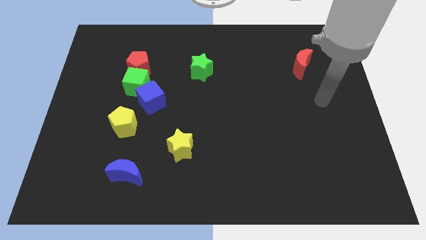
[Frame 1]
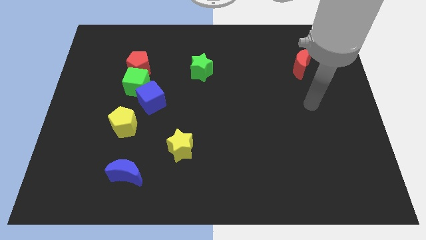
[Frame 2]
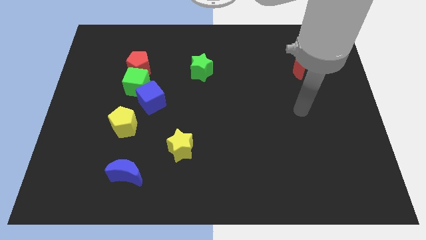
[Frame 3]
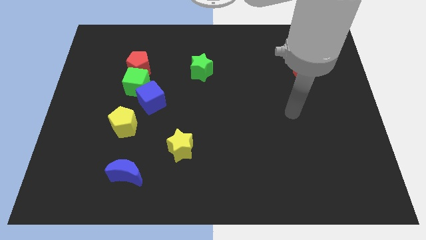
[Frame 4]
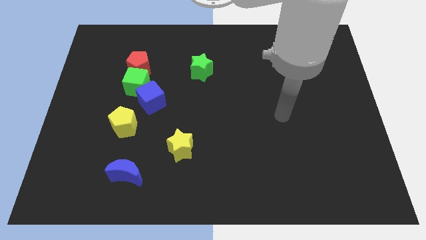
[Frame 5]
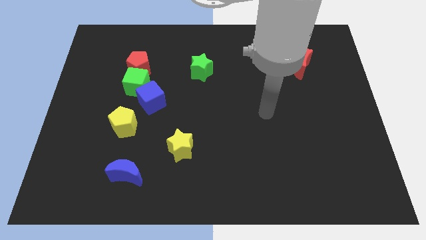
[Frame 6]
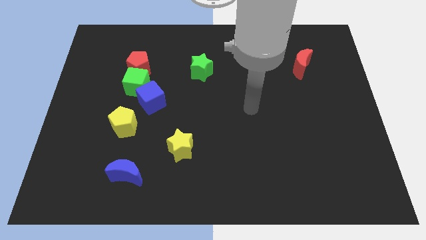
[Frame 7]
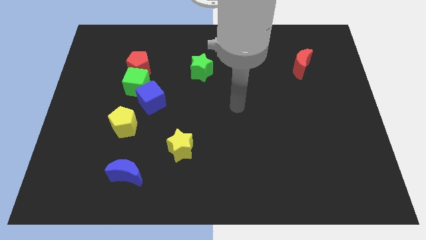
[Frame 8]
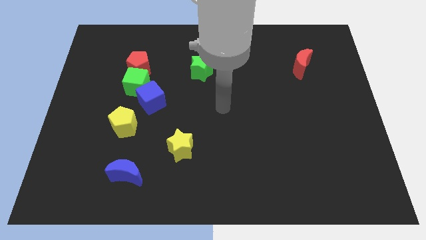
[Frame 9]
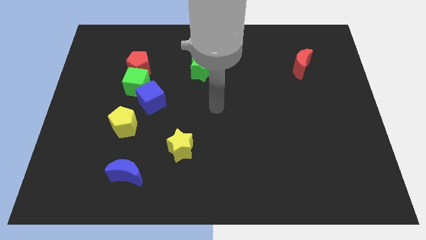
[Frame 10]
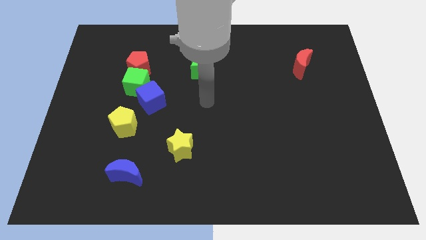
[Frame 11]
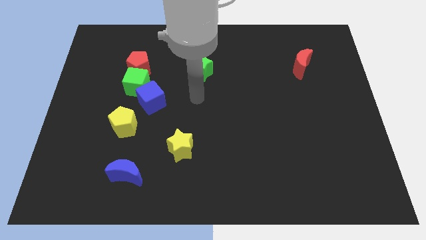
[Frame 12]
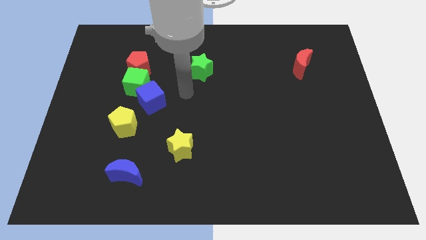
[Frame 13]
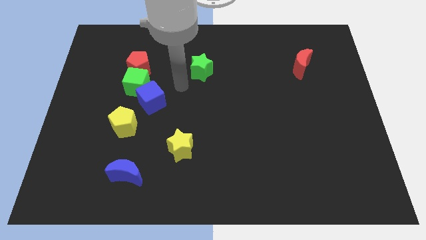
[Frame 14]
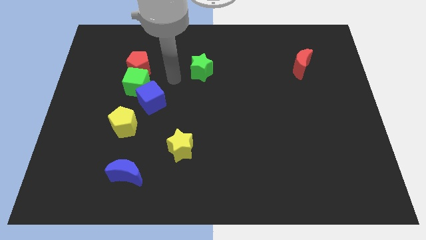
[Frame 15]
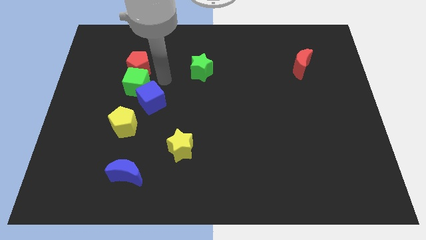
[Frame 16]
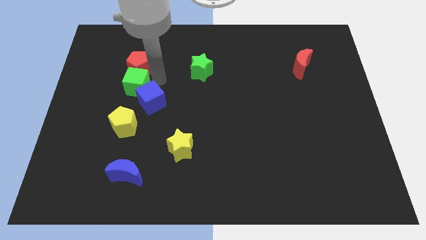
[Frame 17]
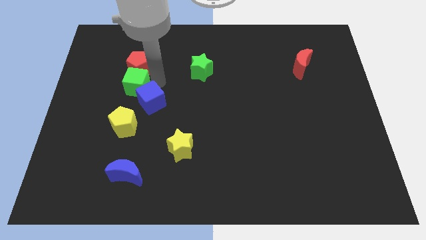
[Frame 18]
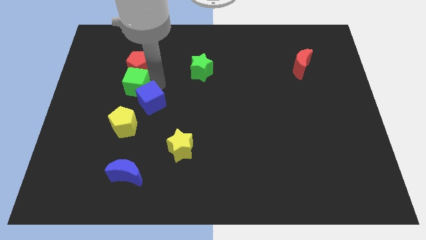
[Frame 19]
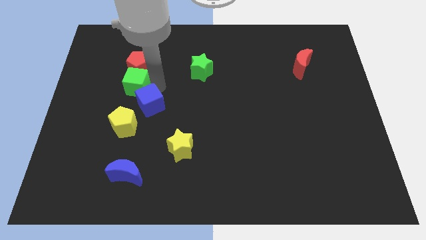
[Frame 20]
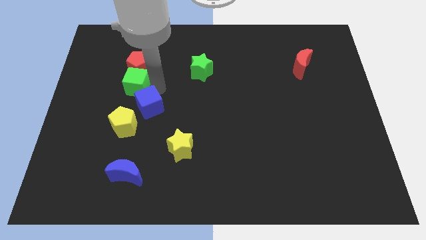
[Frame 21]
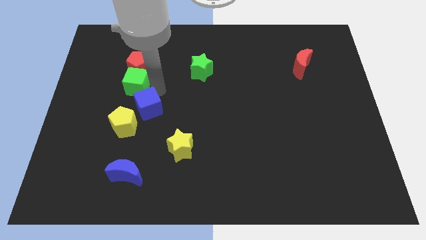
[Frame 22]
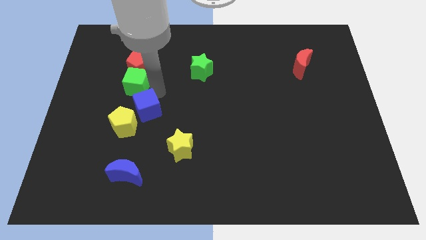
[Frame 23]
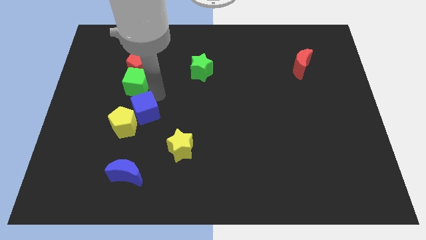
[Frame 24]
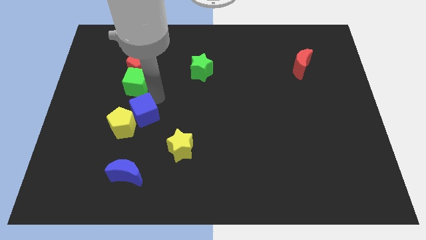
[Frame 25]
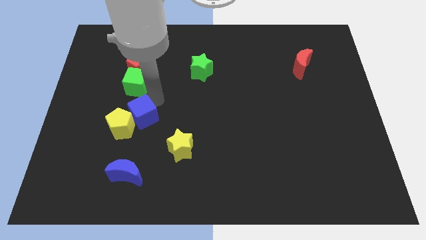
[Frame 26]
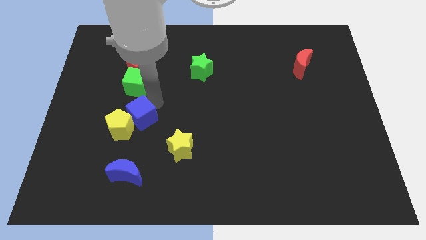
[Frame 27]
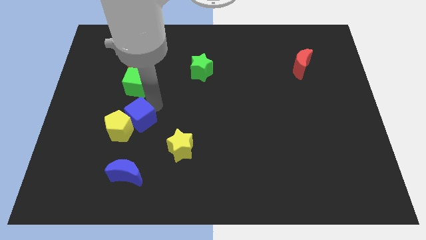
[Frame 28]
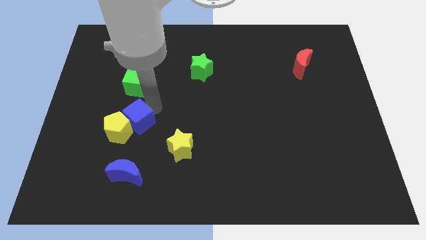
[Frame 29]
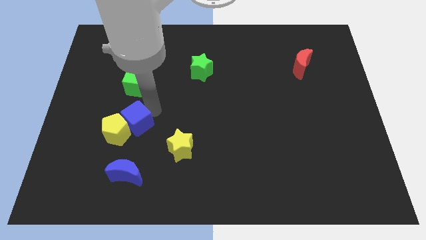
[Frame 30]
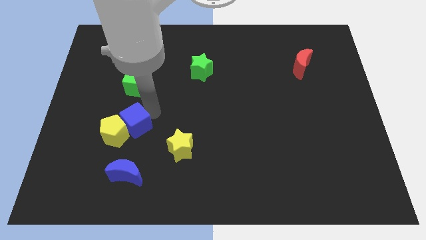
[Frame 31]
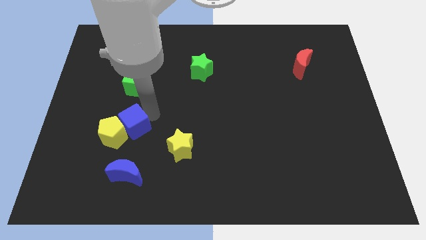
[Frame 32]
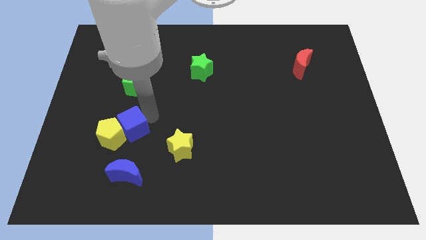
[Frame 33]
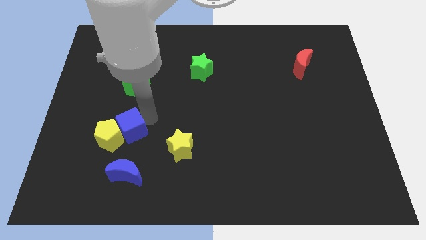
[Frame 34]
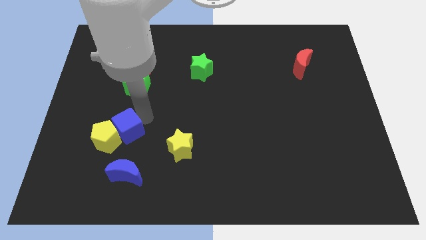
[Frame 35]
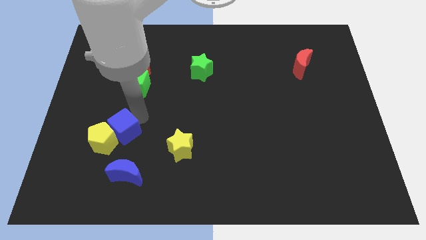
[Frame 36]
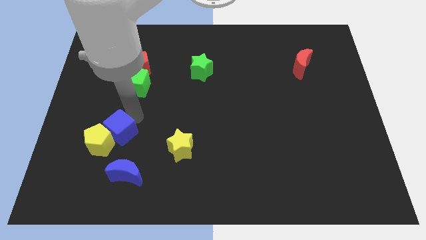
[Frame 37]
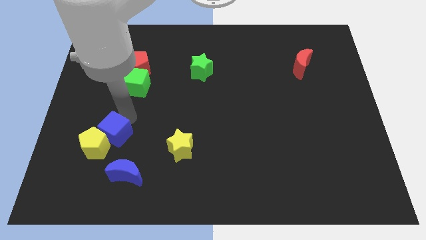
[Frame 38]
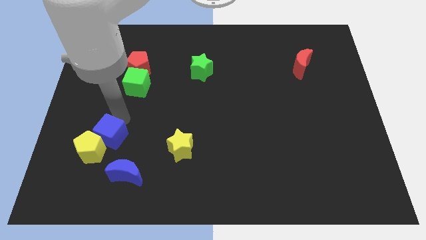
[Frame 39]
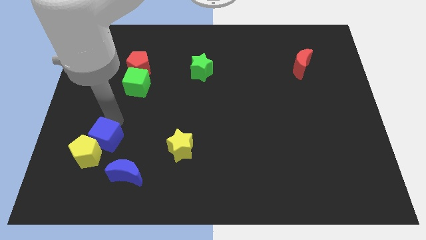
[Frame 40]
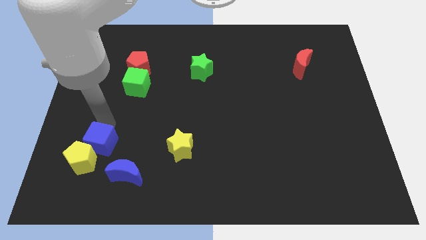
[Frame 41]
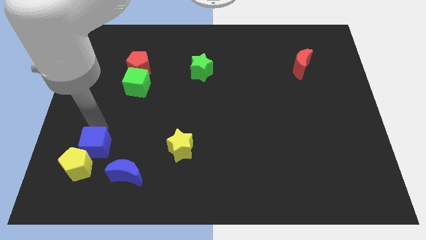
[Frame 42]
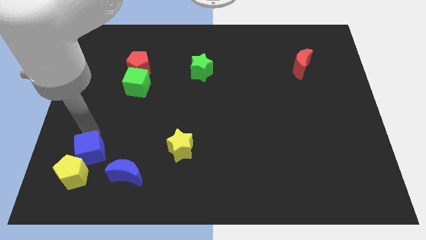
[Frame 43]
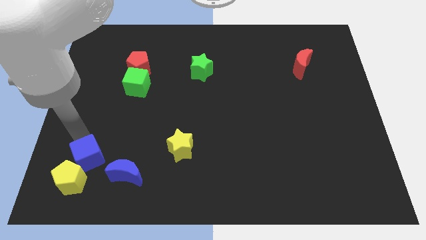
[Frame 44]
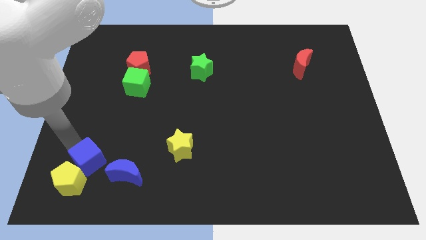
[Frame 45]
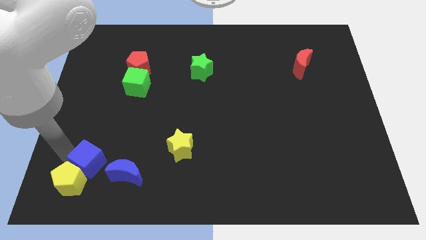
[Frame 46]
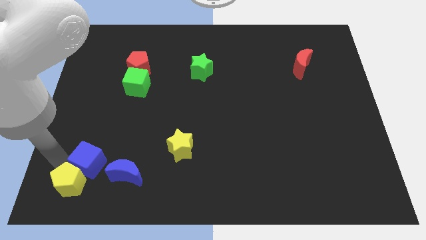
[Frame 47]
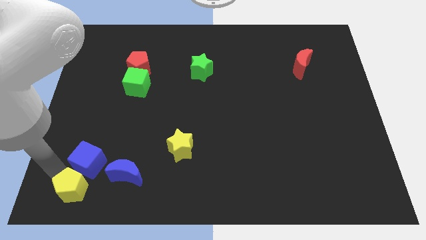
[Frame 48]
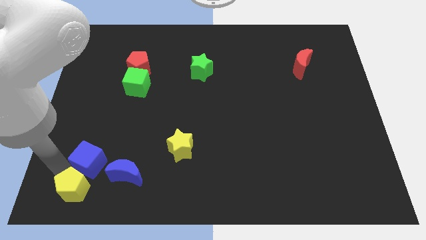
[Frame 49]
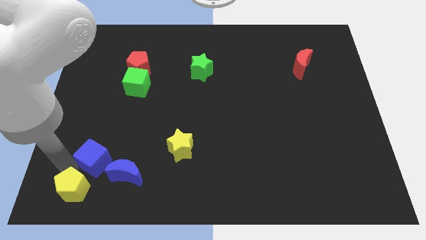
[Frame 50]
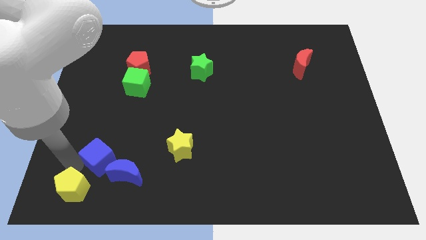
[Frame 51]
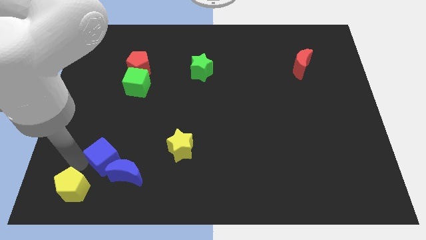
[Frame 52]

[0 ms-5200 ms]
move the blue cube close to the blue moon

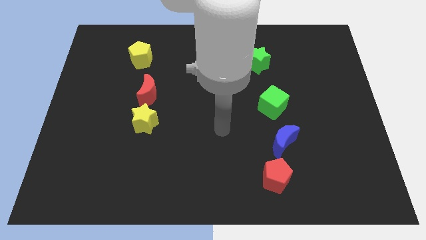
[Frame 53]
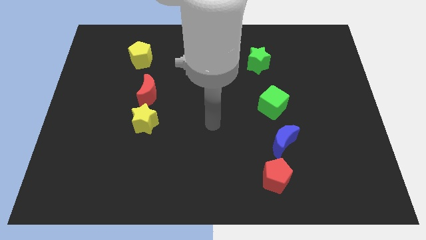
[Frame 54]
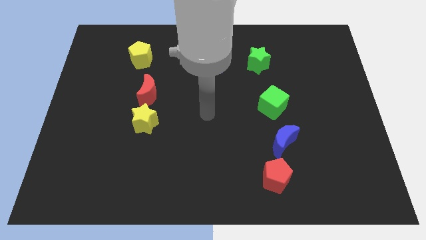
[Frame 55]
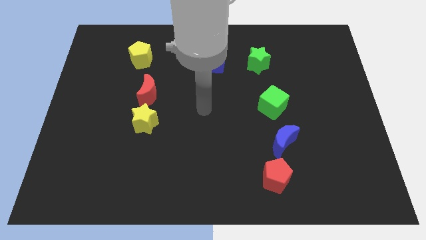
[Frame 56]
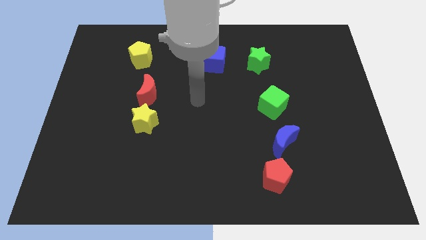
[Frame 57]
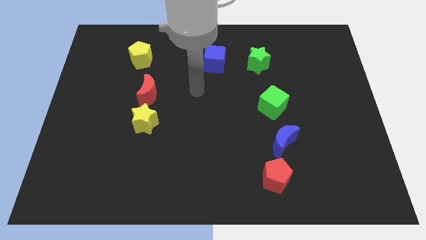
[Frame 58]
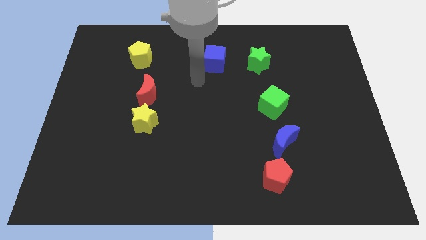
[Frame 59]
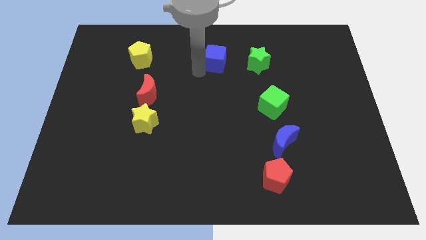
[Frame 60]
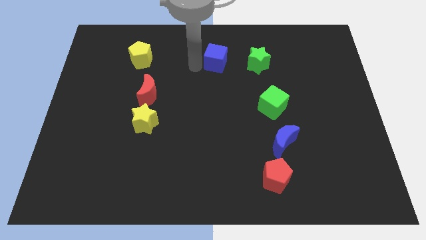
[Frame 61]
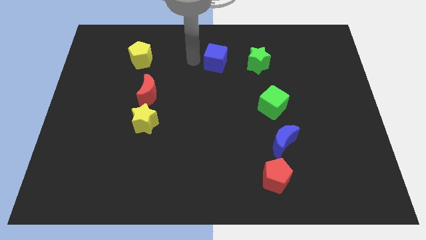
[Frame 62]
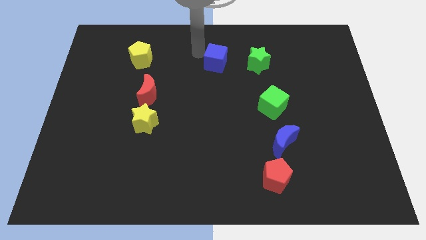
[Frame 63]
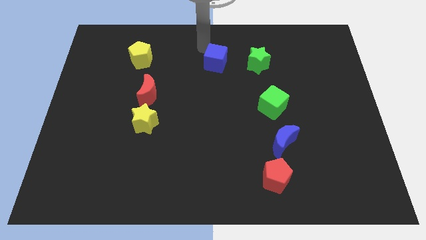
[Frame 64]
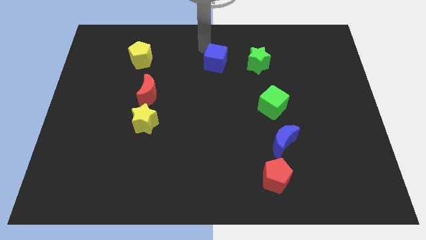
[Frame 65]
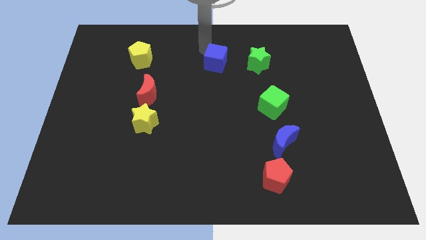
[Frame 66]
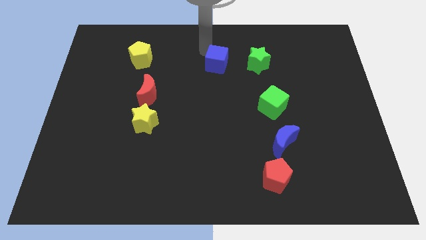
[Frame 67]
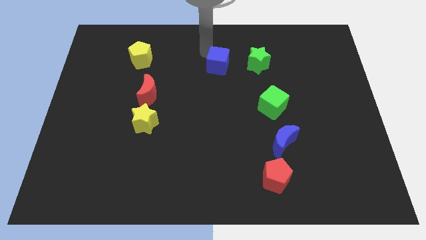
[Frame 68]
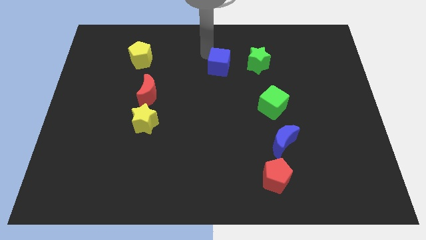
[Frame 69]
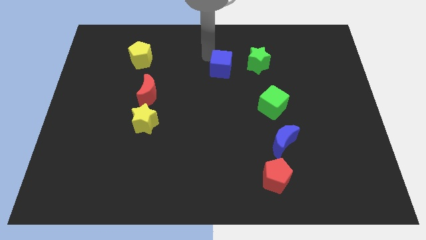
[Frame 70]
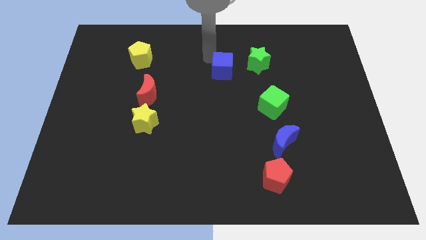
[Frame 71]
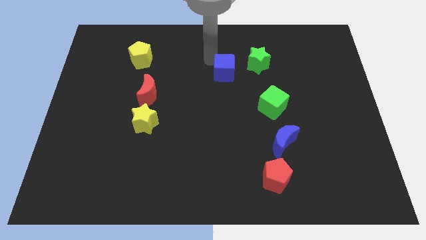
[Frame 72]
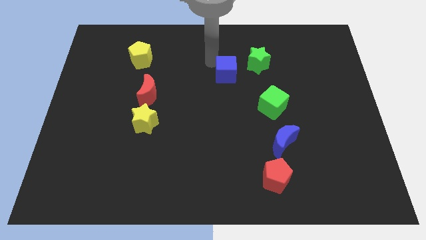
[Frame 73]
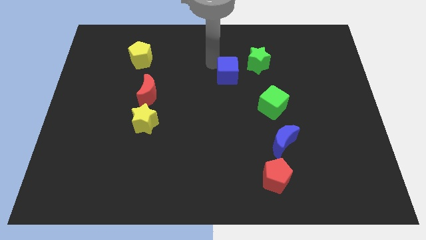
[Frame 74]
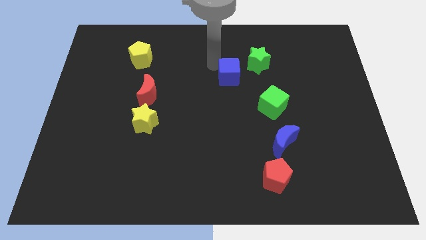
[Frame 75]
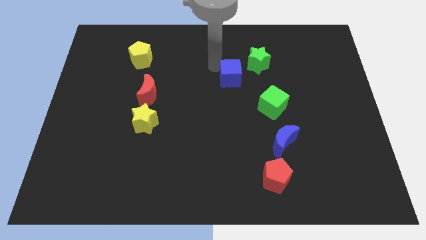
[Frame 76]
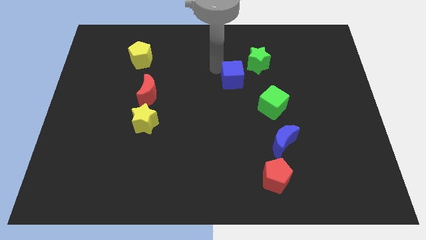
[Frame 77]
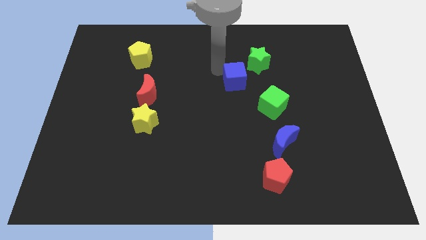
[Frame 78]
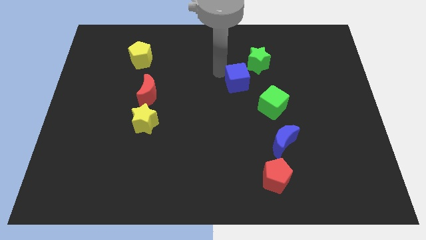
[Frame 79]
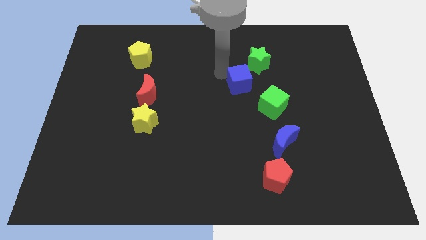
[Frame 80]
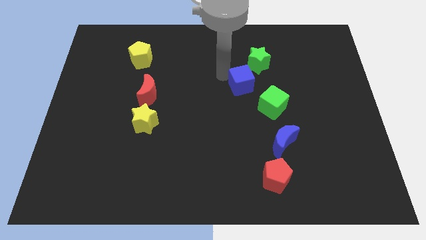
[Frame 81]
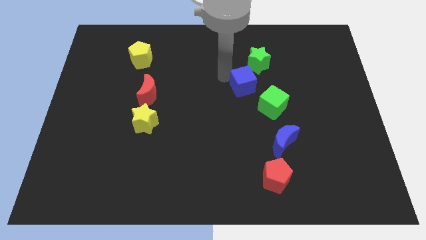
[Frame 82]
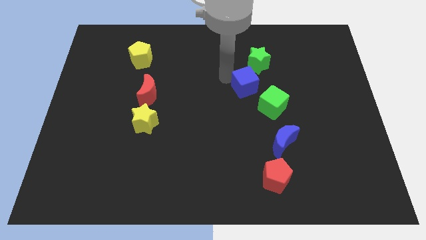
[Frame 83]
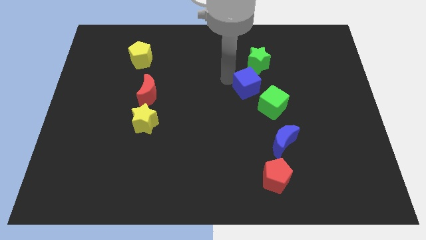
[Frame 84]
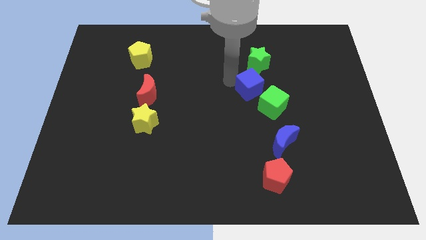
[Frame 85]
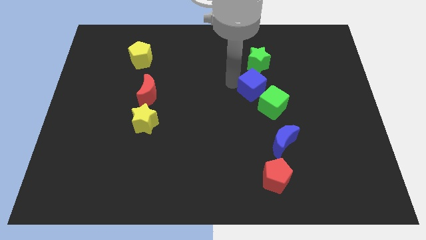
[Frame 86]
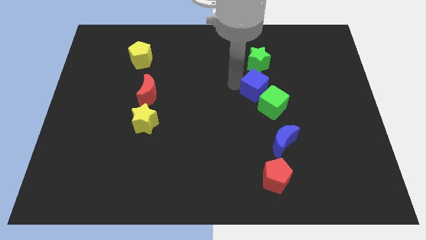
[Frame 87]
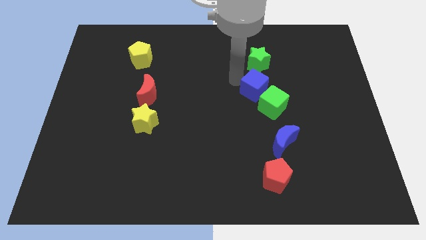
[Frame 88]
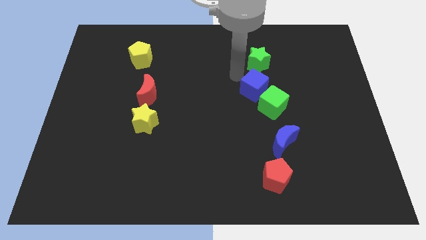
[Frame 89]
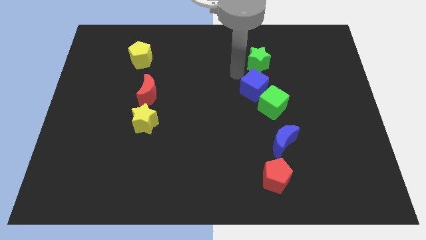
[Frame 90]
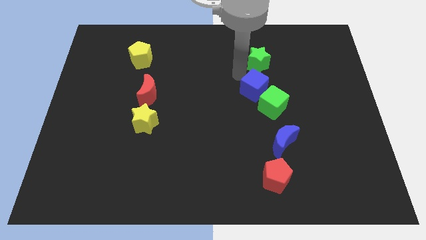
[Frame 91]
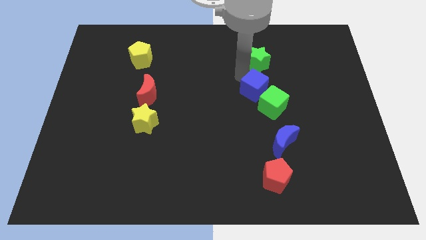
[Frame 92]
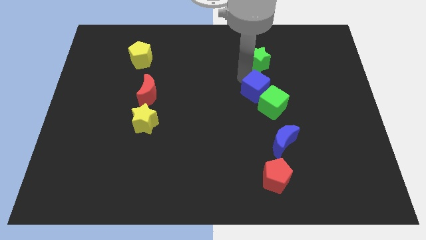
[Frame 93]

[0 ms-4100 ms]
slide the blue cube next to the green cube
